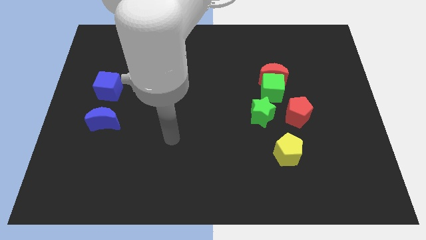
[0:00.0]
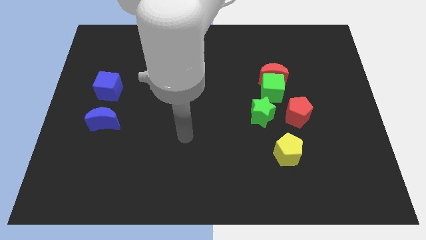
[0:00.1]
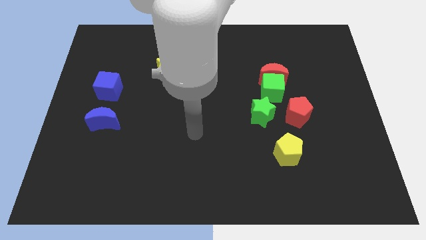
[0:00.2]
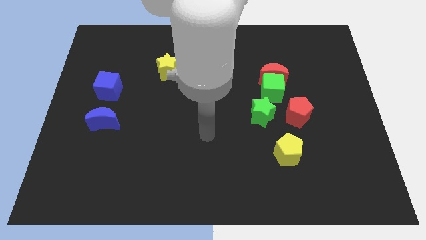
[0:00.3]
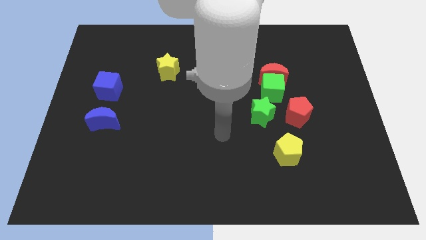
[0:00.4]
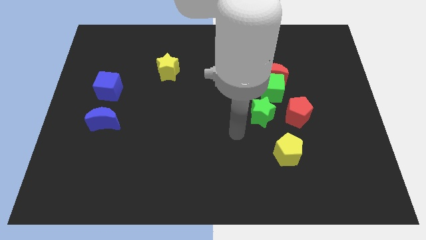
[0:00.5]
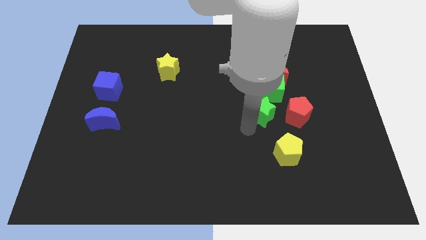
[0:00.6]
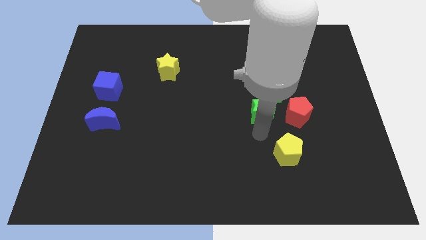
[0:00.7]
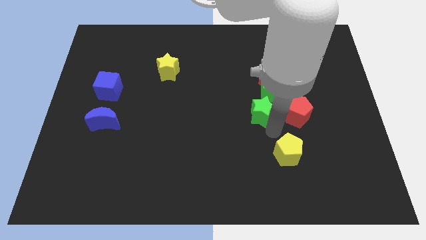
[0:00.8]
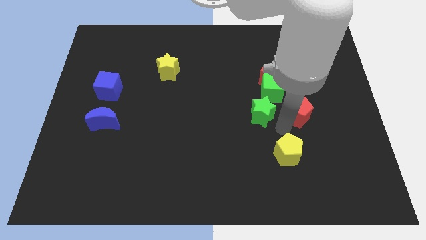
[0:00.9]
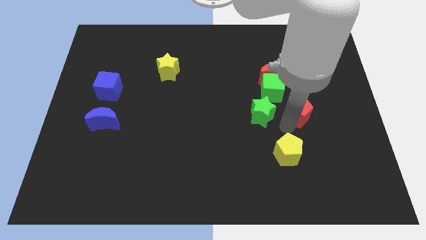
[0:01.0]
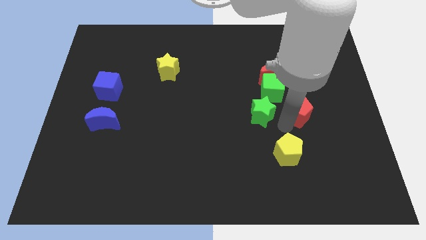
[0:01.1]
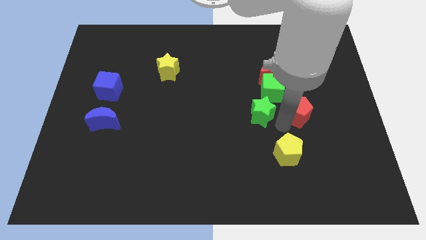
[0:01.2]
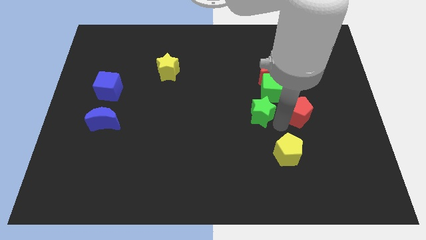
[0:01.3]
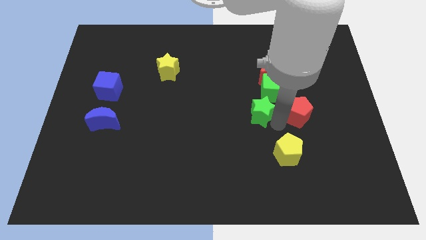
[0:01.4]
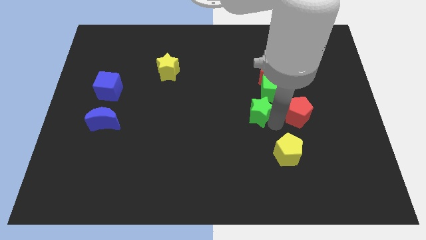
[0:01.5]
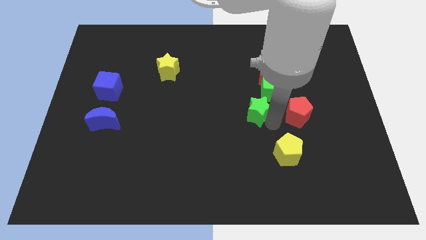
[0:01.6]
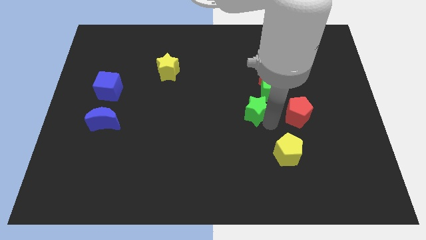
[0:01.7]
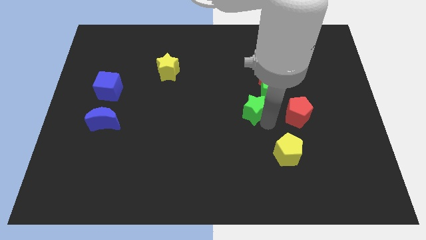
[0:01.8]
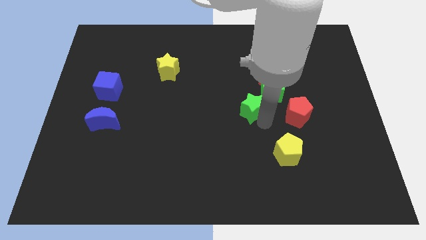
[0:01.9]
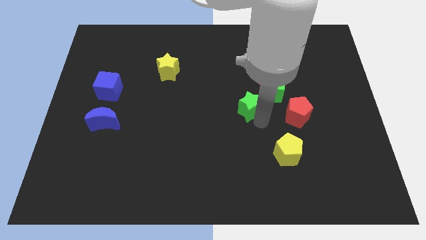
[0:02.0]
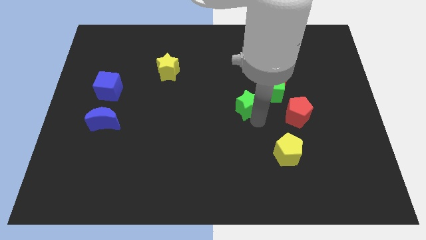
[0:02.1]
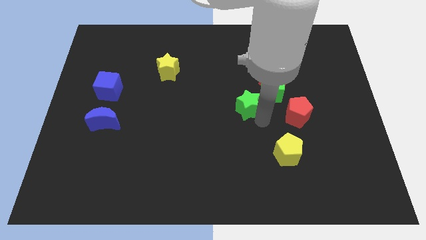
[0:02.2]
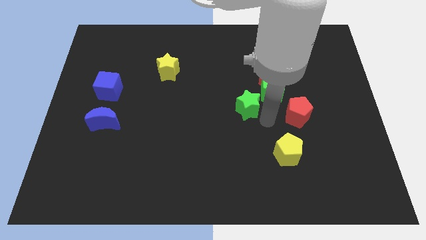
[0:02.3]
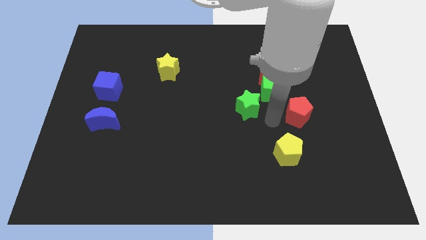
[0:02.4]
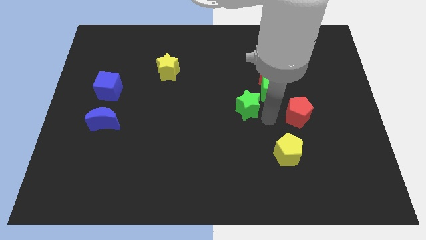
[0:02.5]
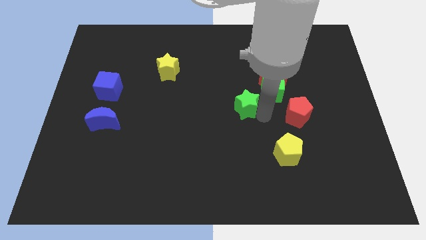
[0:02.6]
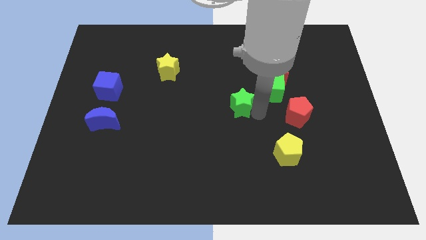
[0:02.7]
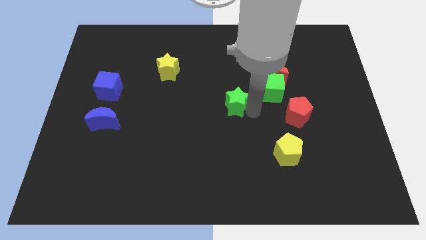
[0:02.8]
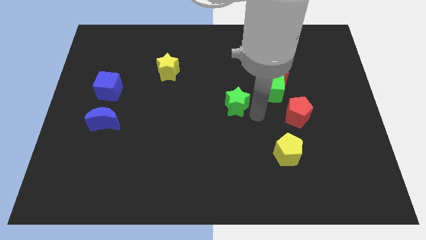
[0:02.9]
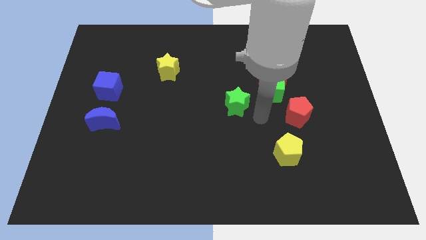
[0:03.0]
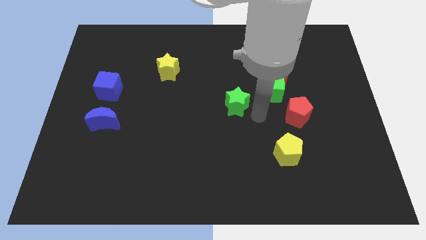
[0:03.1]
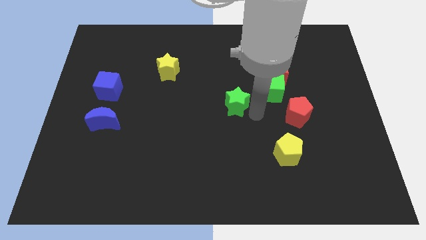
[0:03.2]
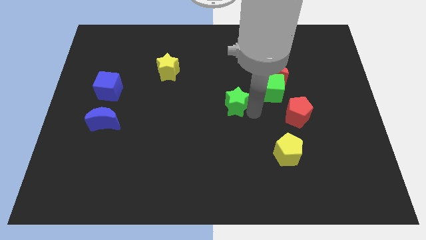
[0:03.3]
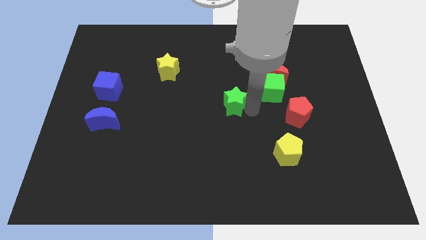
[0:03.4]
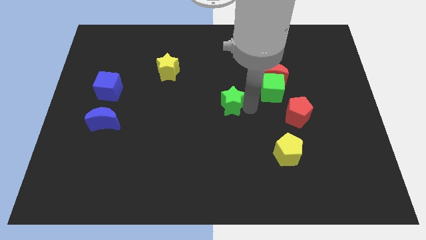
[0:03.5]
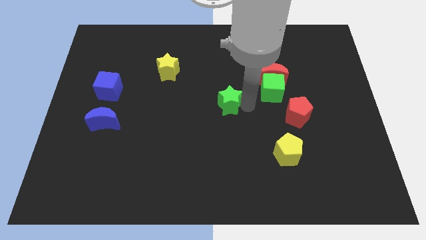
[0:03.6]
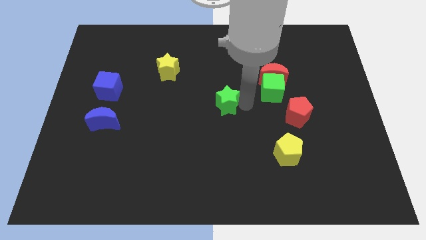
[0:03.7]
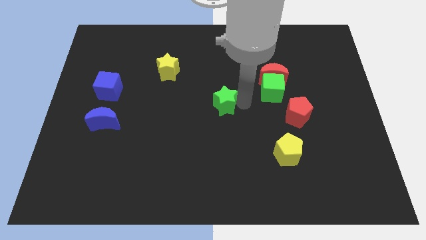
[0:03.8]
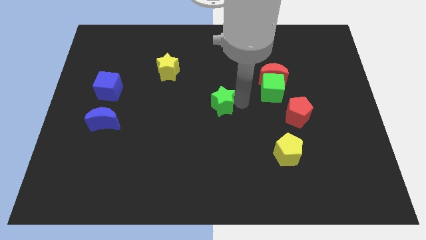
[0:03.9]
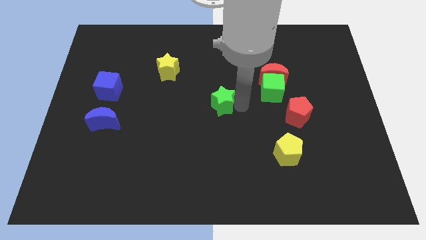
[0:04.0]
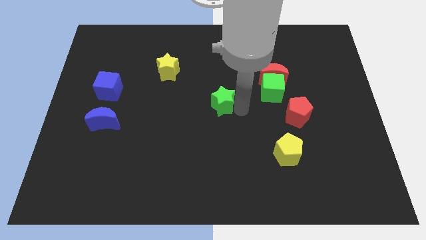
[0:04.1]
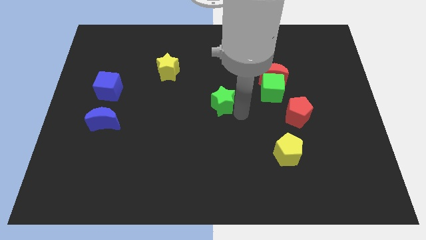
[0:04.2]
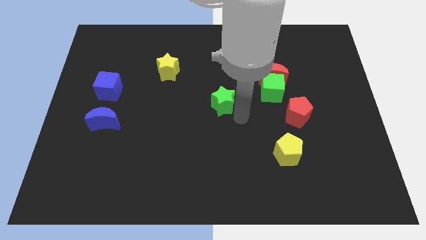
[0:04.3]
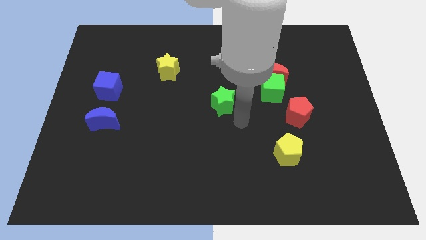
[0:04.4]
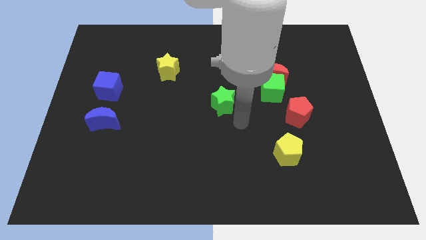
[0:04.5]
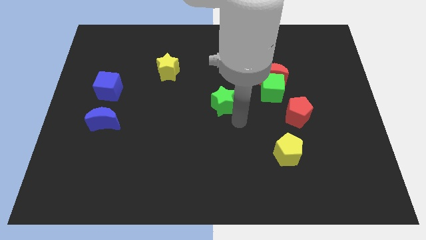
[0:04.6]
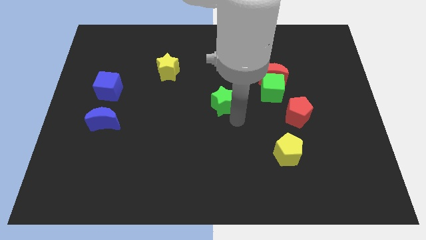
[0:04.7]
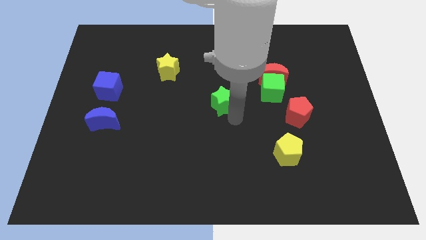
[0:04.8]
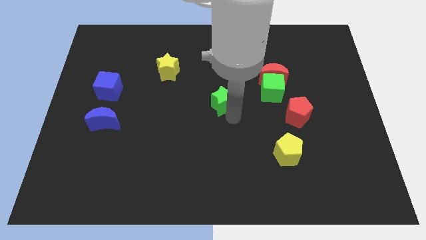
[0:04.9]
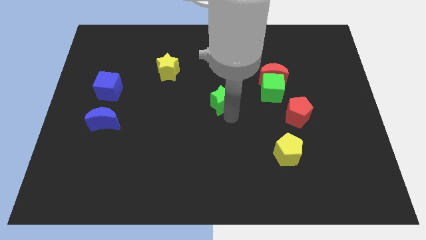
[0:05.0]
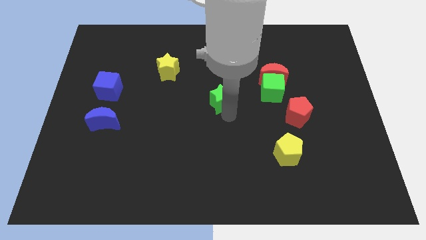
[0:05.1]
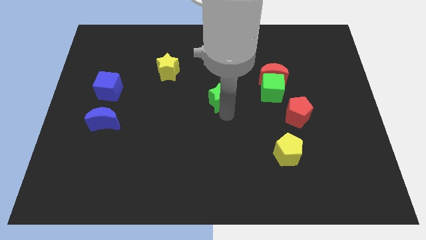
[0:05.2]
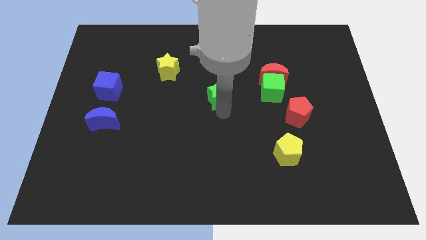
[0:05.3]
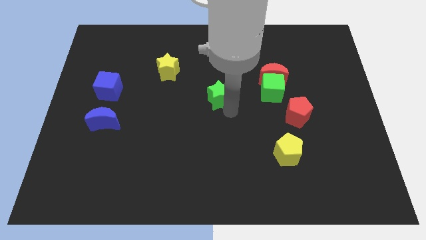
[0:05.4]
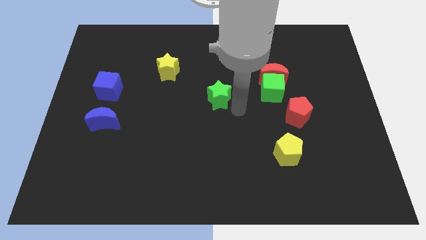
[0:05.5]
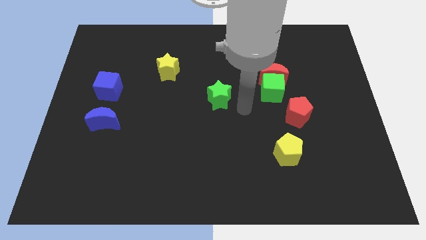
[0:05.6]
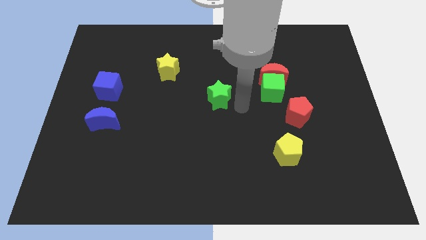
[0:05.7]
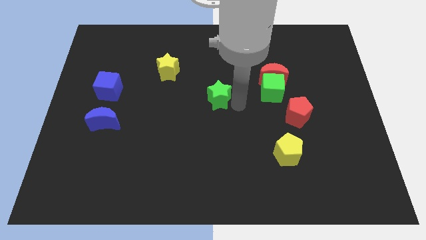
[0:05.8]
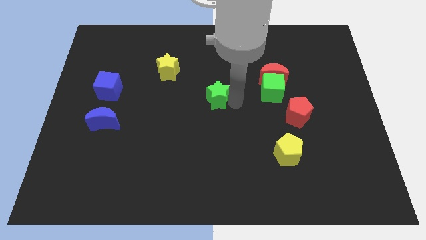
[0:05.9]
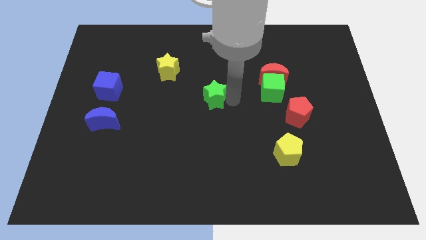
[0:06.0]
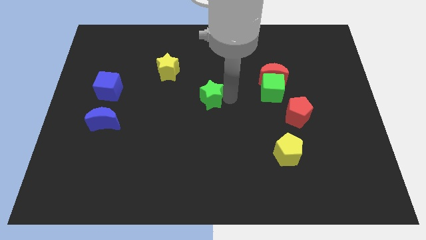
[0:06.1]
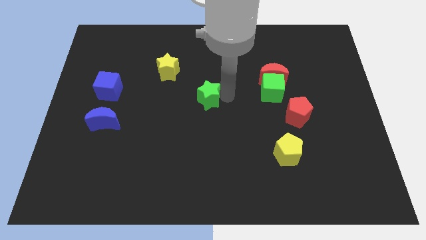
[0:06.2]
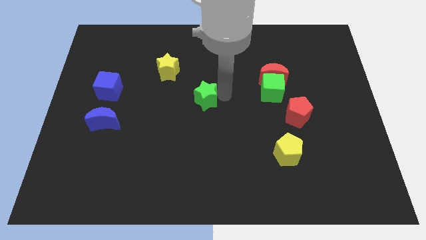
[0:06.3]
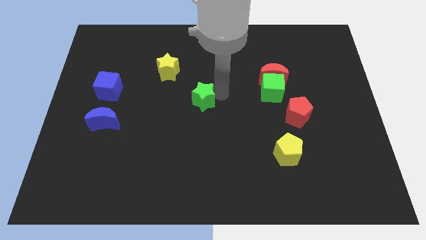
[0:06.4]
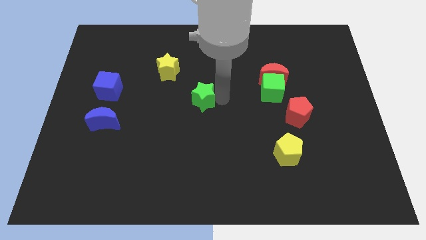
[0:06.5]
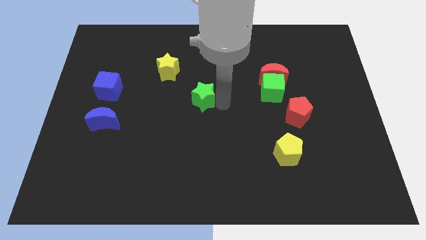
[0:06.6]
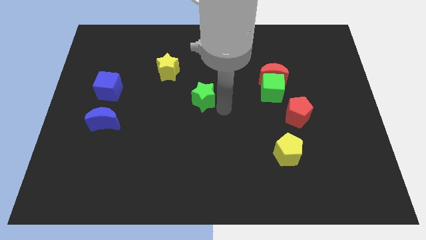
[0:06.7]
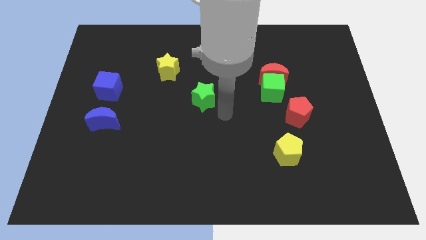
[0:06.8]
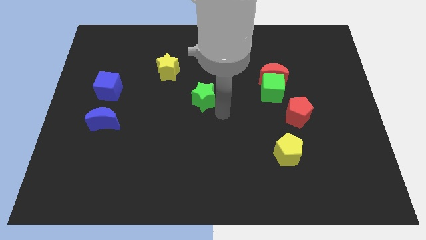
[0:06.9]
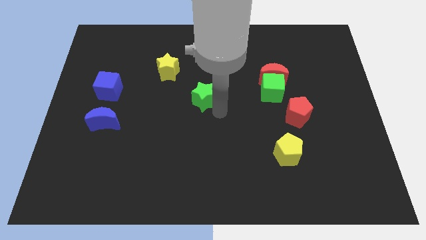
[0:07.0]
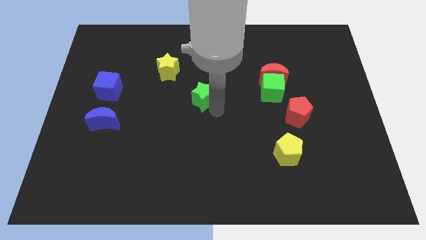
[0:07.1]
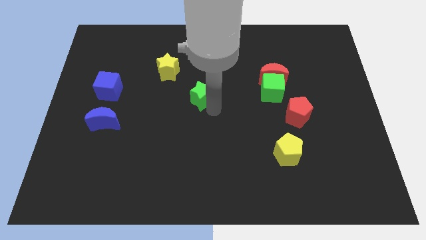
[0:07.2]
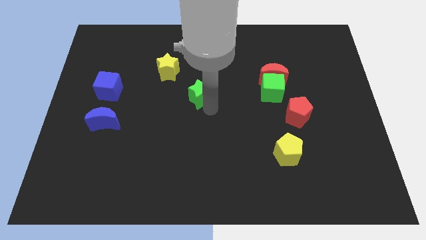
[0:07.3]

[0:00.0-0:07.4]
slide the green star to the bottom right side of the yellow star

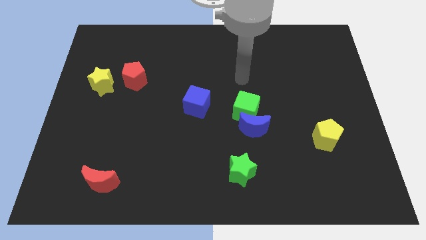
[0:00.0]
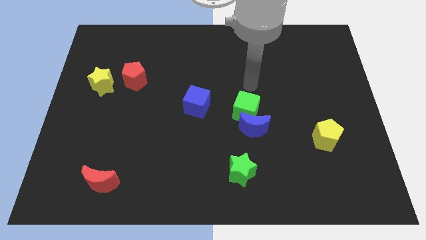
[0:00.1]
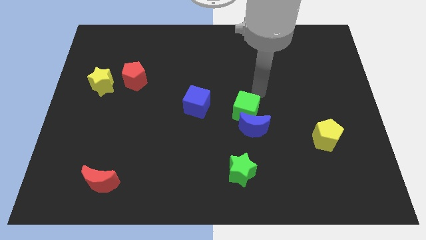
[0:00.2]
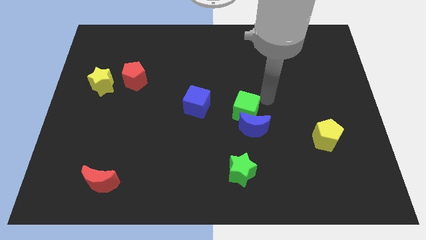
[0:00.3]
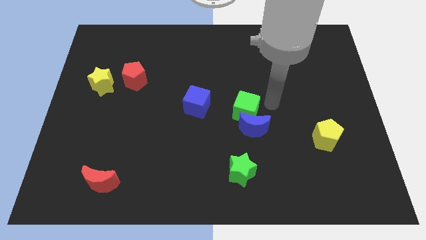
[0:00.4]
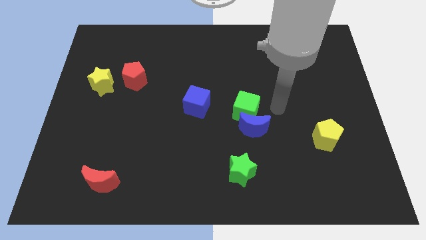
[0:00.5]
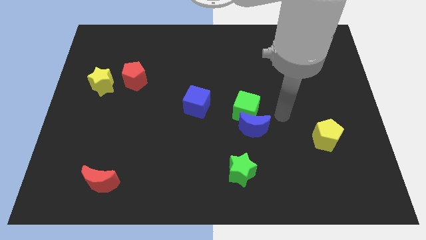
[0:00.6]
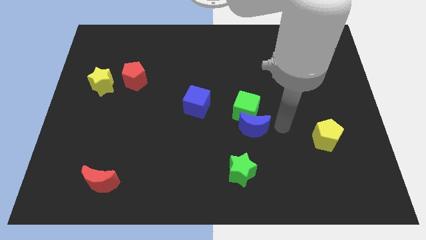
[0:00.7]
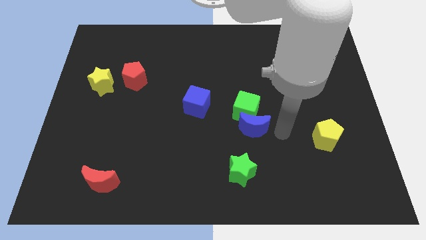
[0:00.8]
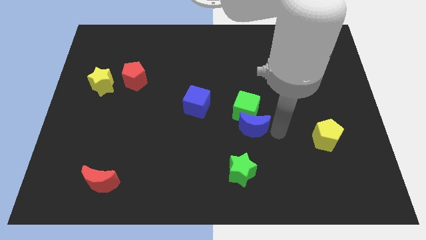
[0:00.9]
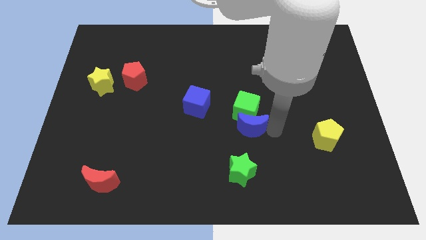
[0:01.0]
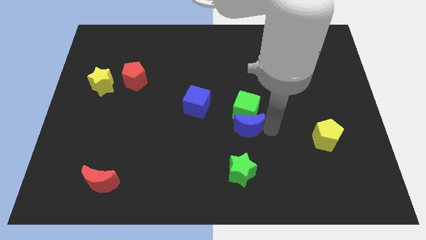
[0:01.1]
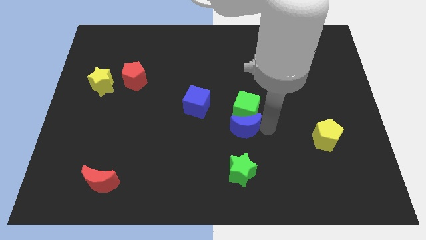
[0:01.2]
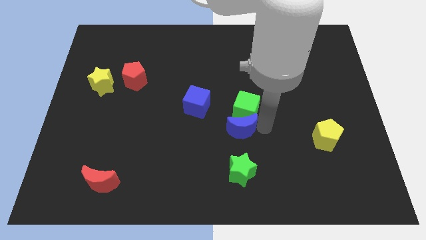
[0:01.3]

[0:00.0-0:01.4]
slide the blue moon to the bottom right of the blue cube
